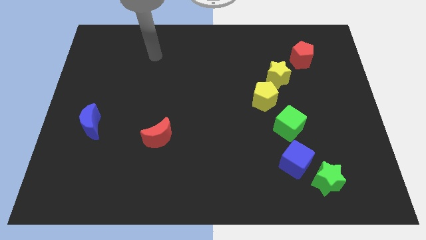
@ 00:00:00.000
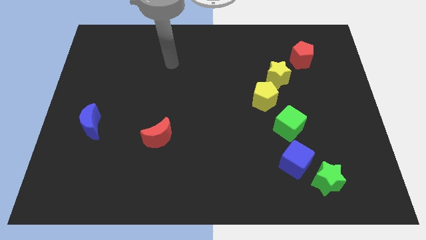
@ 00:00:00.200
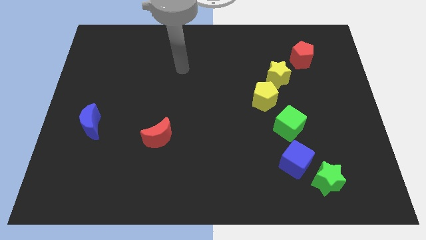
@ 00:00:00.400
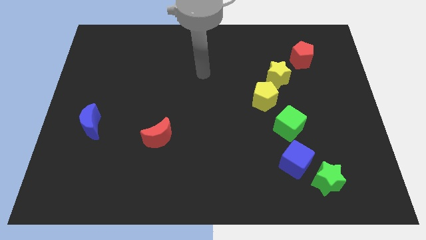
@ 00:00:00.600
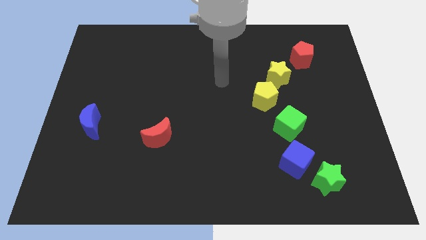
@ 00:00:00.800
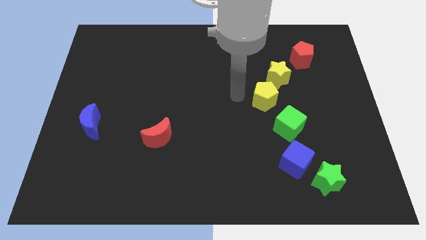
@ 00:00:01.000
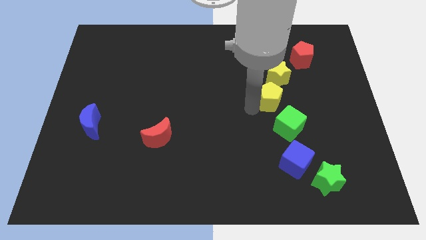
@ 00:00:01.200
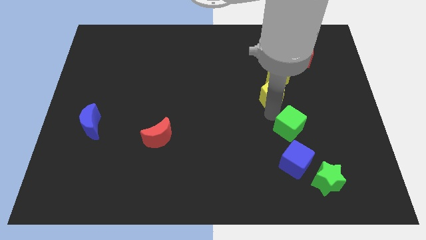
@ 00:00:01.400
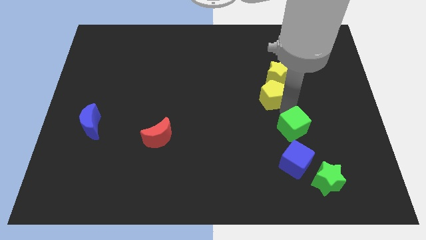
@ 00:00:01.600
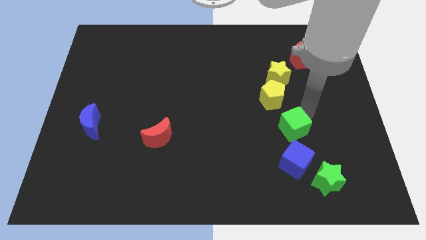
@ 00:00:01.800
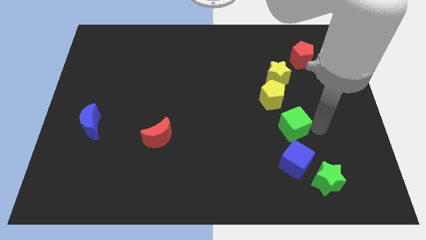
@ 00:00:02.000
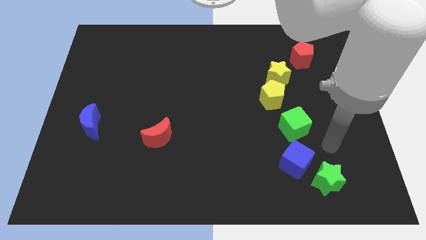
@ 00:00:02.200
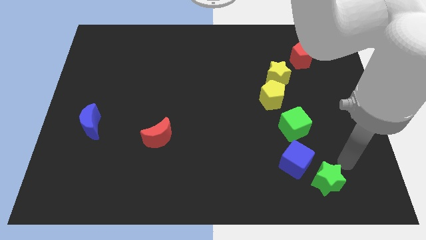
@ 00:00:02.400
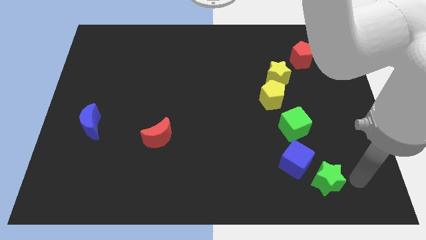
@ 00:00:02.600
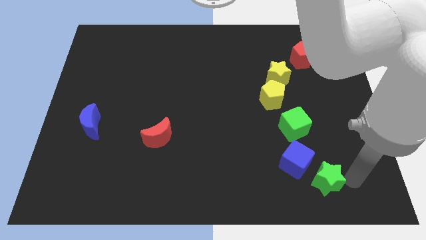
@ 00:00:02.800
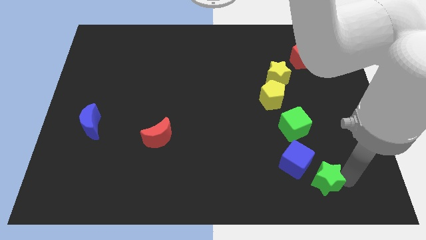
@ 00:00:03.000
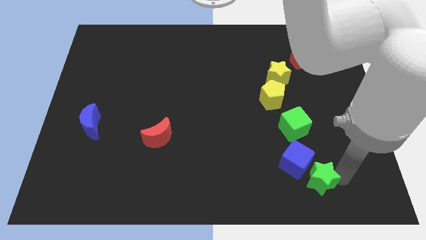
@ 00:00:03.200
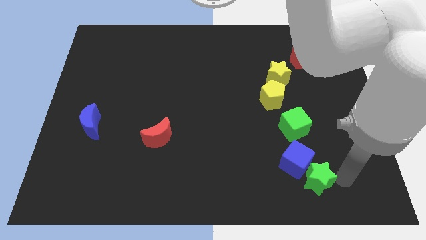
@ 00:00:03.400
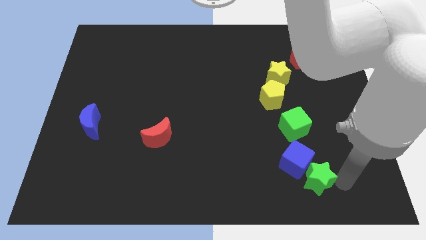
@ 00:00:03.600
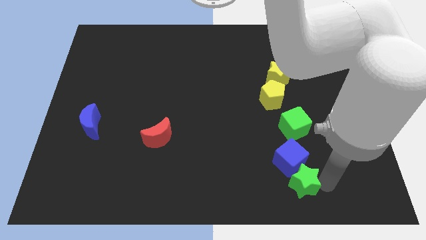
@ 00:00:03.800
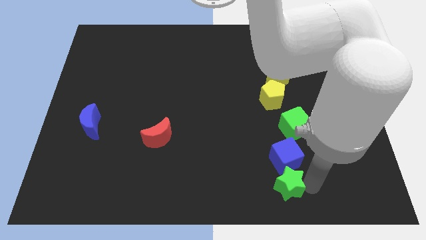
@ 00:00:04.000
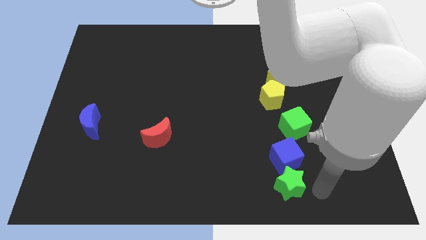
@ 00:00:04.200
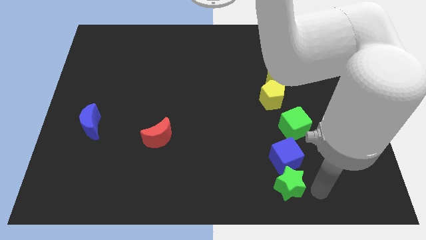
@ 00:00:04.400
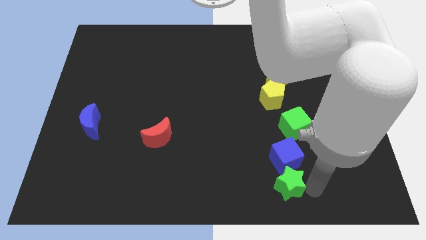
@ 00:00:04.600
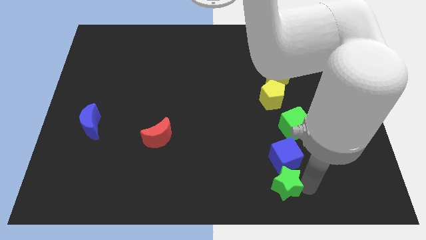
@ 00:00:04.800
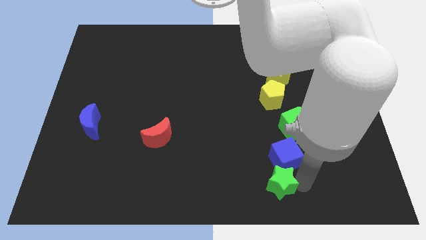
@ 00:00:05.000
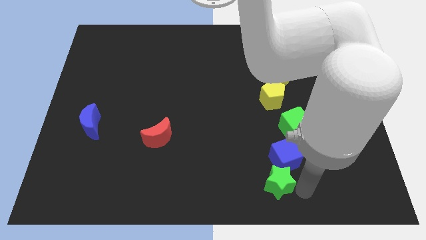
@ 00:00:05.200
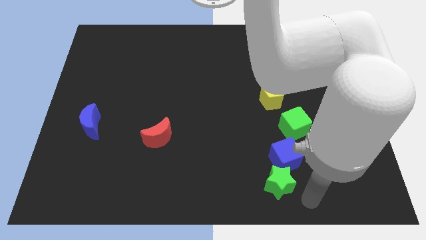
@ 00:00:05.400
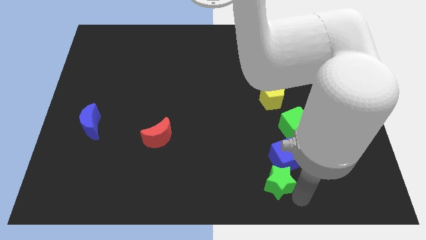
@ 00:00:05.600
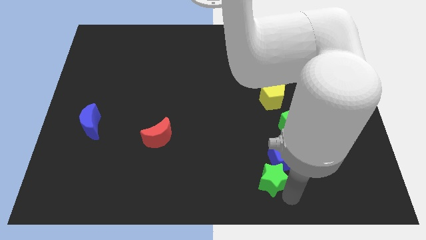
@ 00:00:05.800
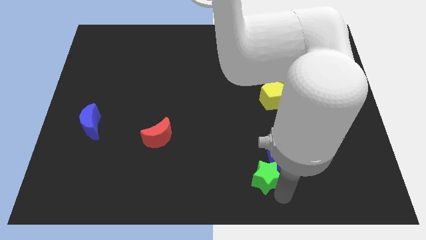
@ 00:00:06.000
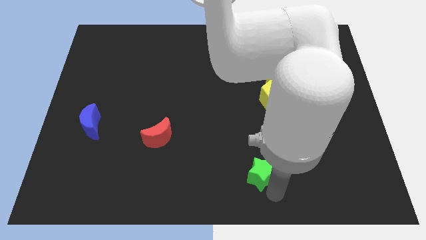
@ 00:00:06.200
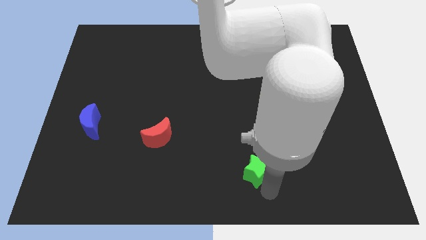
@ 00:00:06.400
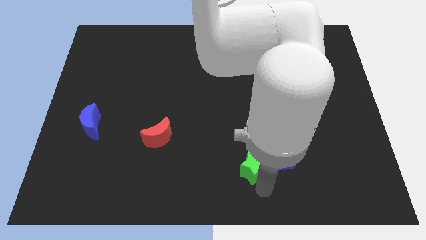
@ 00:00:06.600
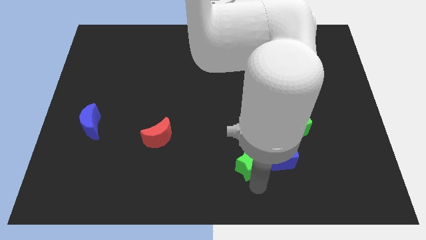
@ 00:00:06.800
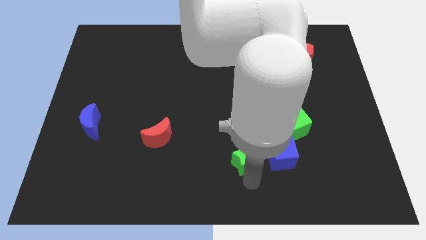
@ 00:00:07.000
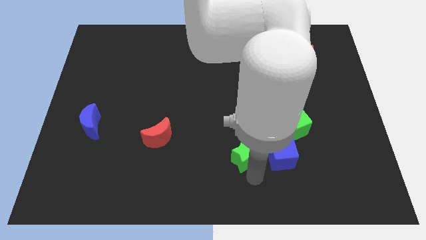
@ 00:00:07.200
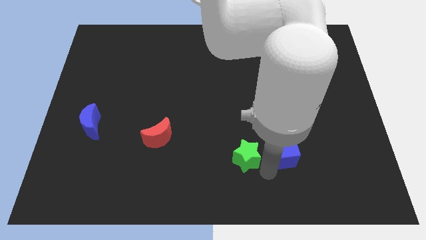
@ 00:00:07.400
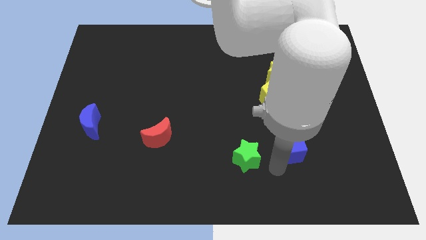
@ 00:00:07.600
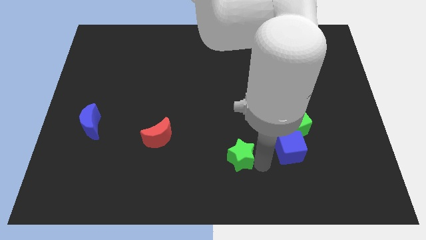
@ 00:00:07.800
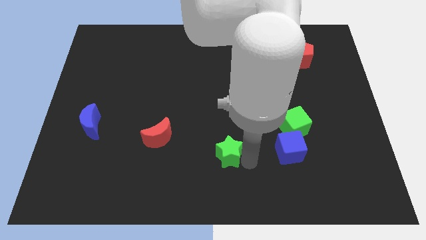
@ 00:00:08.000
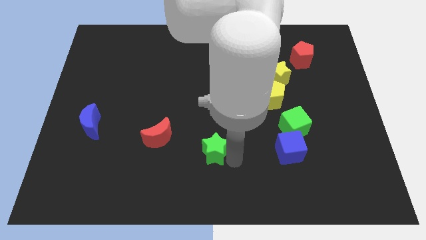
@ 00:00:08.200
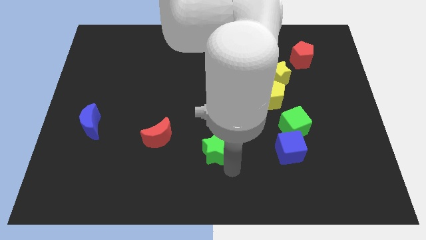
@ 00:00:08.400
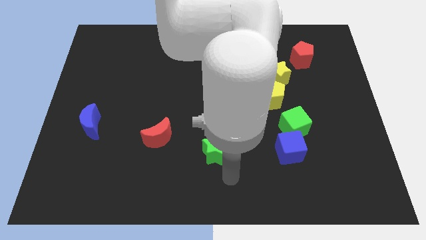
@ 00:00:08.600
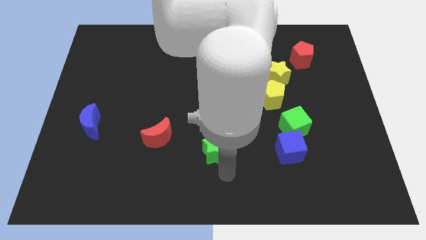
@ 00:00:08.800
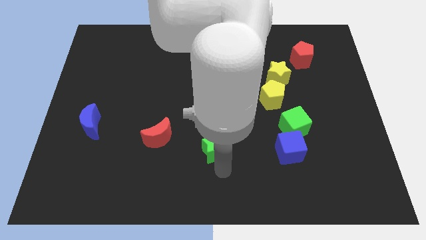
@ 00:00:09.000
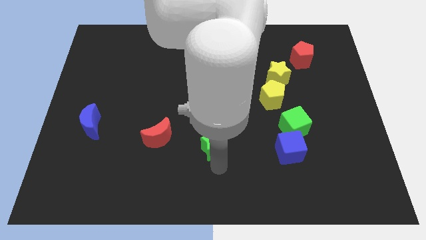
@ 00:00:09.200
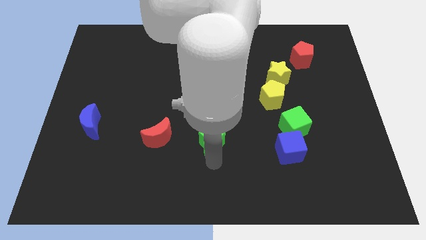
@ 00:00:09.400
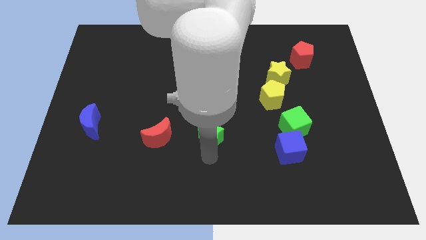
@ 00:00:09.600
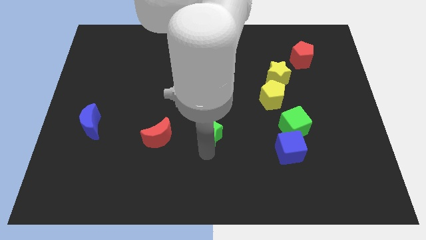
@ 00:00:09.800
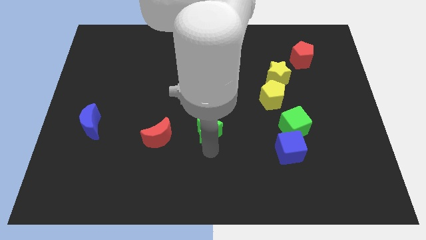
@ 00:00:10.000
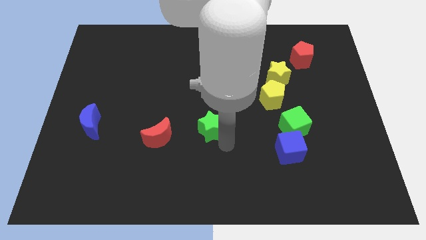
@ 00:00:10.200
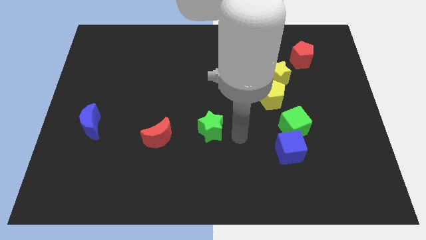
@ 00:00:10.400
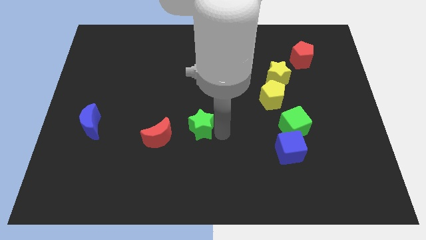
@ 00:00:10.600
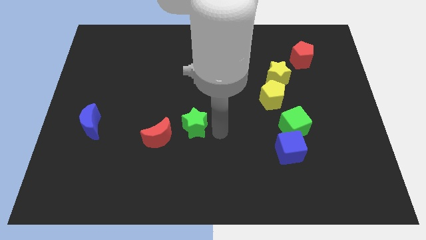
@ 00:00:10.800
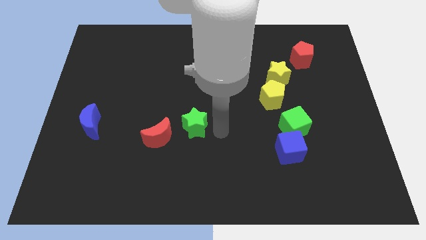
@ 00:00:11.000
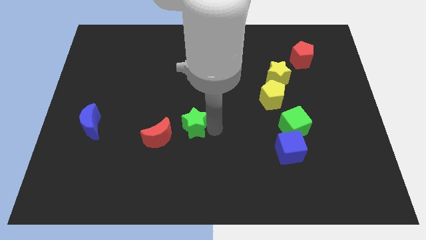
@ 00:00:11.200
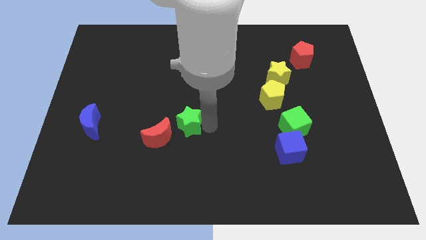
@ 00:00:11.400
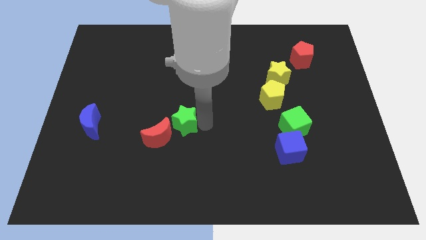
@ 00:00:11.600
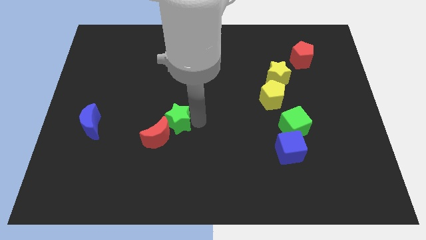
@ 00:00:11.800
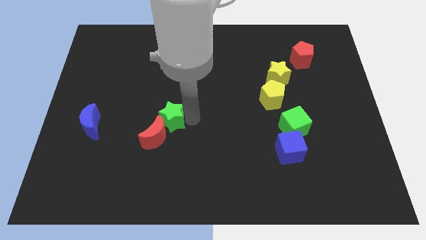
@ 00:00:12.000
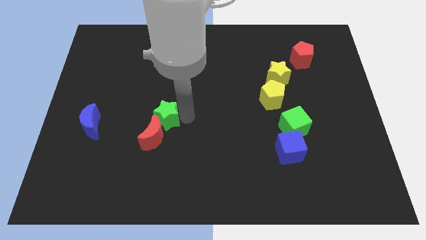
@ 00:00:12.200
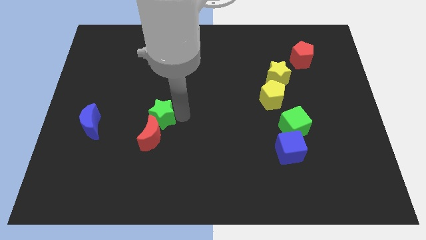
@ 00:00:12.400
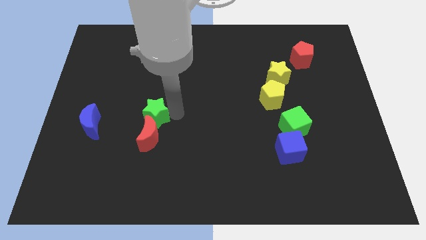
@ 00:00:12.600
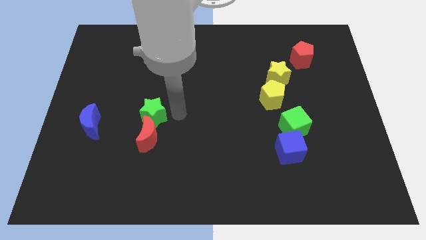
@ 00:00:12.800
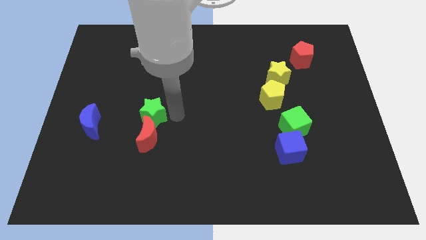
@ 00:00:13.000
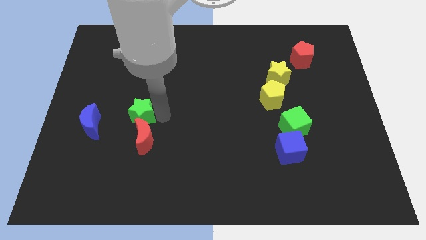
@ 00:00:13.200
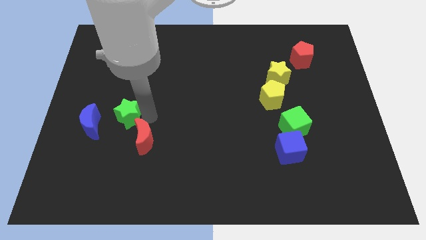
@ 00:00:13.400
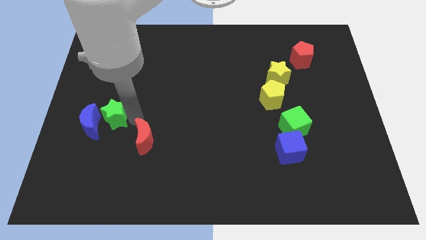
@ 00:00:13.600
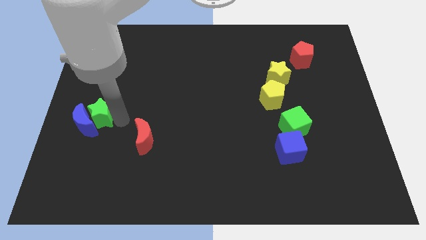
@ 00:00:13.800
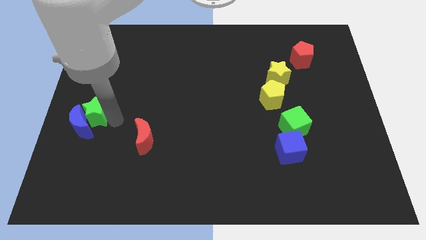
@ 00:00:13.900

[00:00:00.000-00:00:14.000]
slide the green star to the left side of the board
